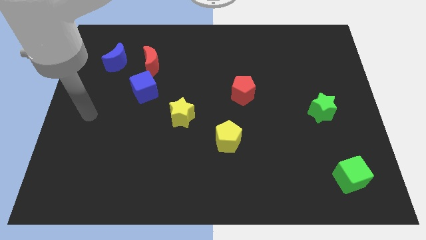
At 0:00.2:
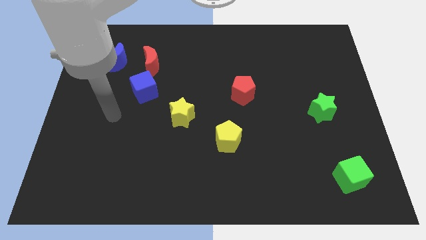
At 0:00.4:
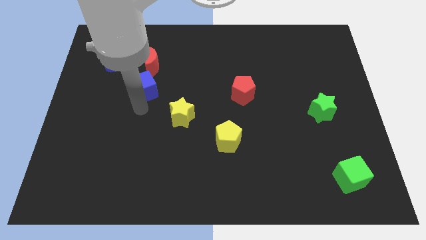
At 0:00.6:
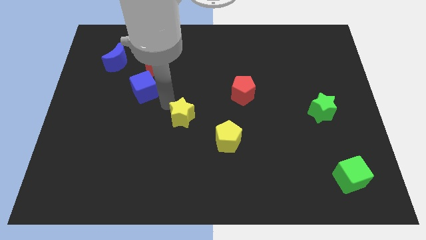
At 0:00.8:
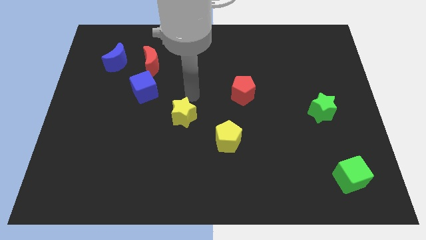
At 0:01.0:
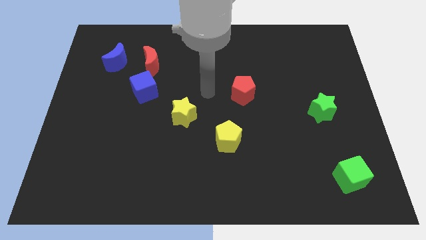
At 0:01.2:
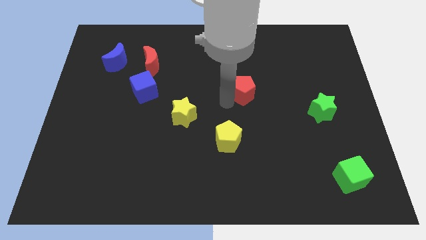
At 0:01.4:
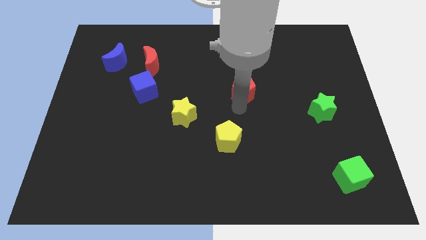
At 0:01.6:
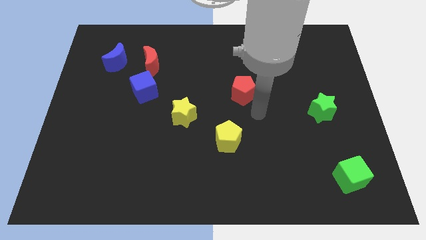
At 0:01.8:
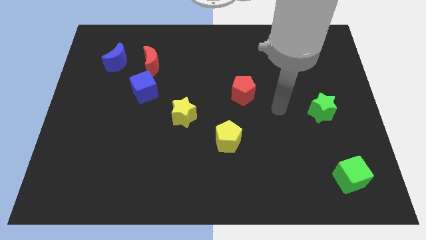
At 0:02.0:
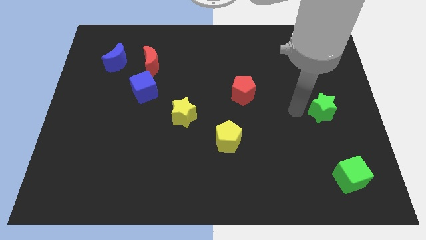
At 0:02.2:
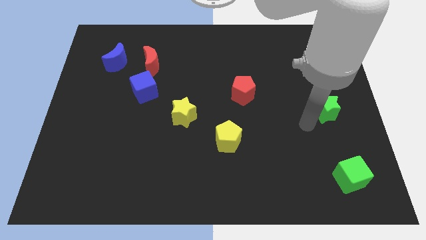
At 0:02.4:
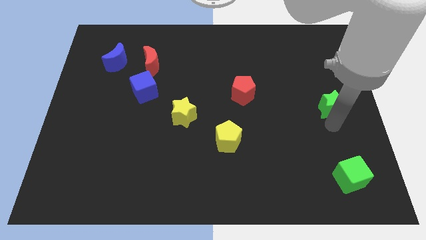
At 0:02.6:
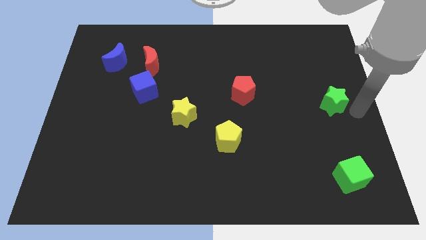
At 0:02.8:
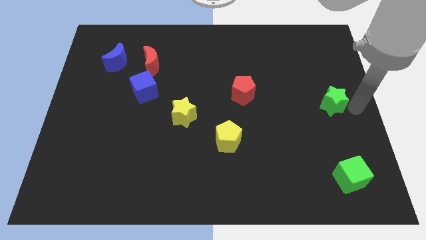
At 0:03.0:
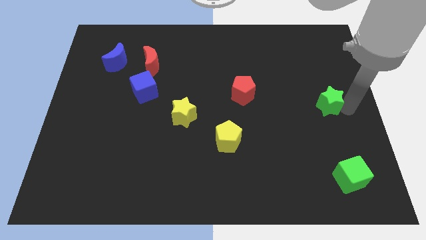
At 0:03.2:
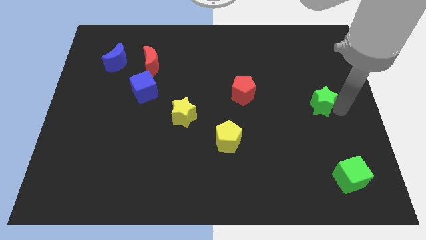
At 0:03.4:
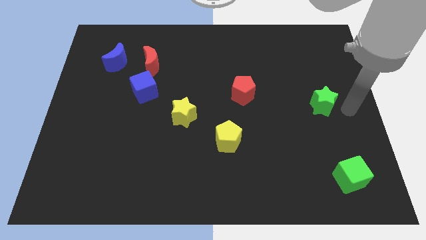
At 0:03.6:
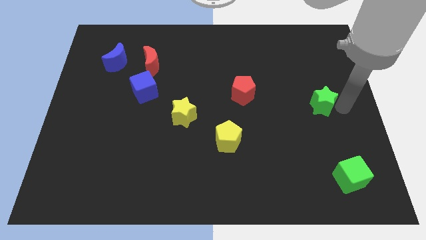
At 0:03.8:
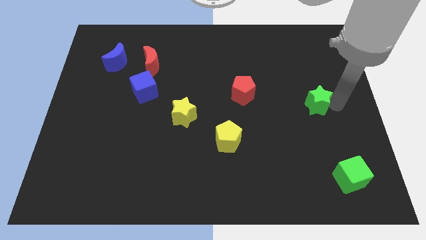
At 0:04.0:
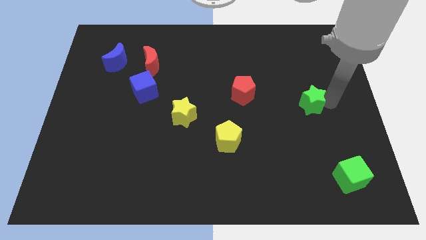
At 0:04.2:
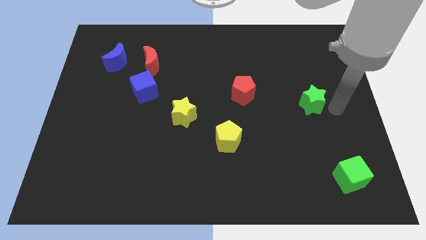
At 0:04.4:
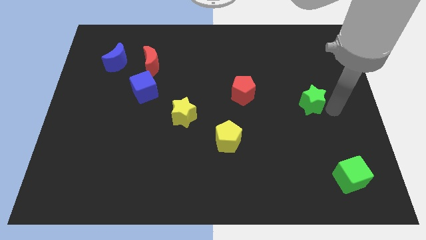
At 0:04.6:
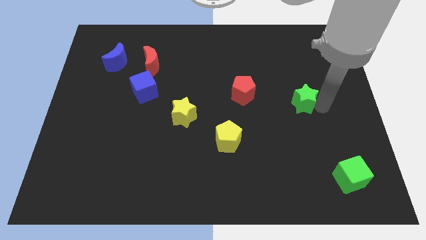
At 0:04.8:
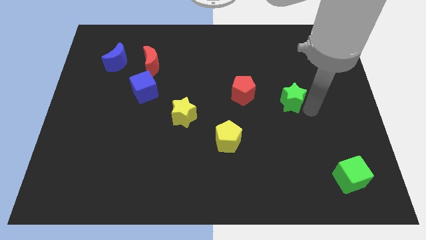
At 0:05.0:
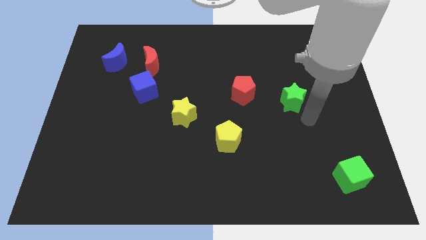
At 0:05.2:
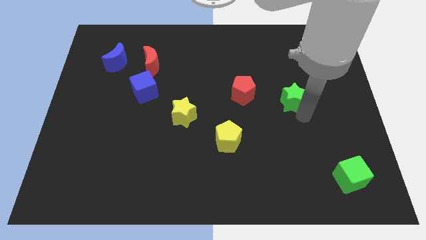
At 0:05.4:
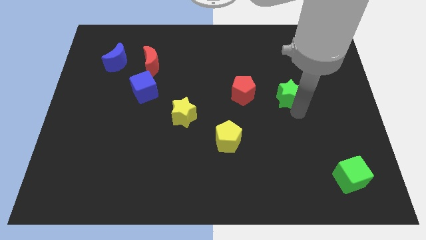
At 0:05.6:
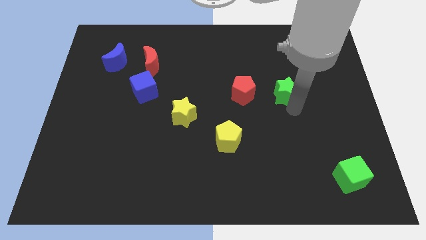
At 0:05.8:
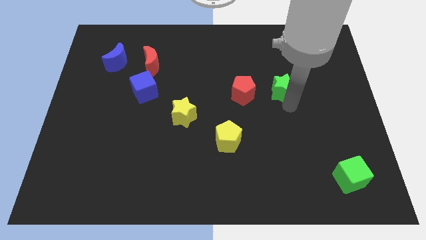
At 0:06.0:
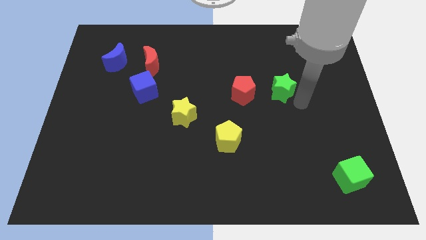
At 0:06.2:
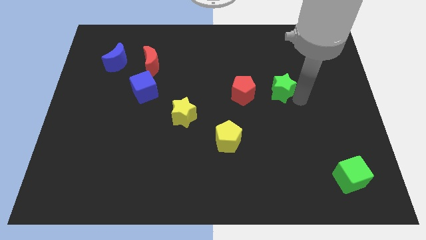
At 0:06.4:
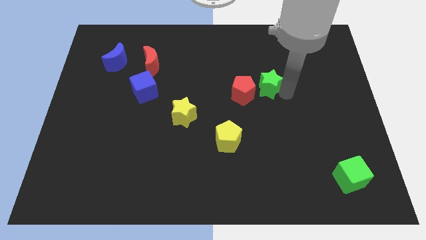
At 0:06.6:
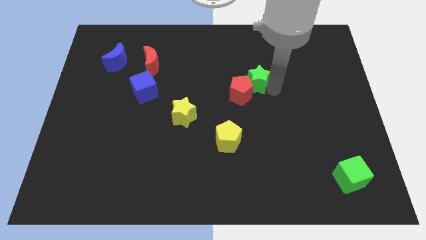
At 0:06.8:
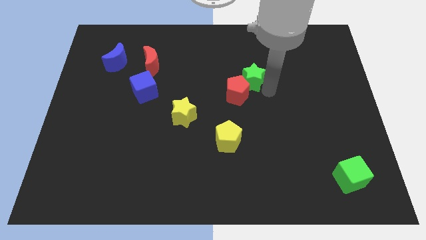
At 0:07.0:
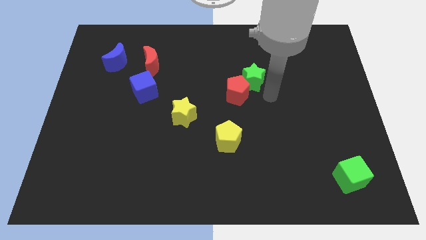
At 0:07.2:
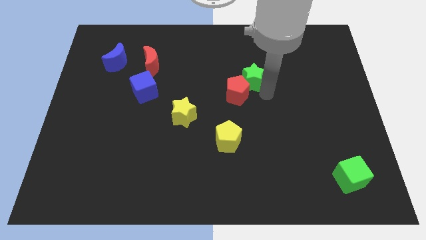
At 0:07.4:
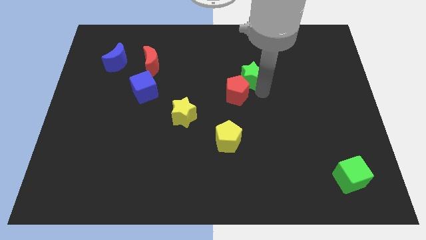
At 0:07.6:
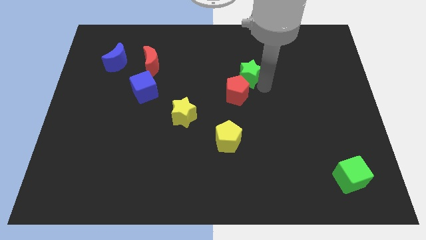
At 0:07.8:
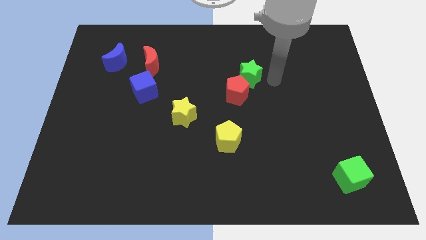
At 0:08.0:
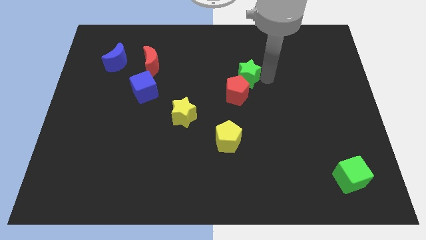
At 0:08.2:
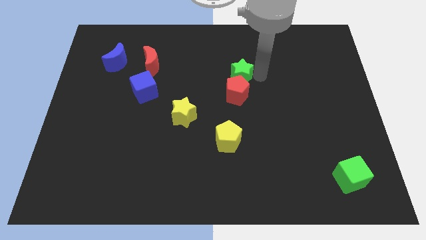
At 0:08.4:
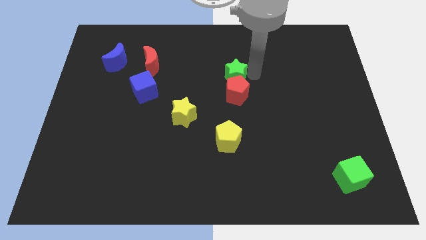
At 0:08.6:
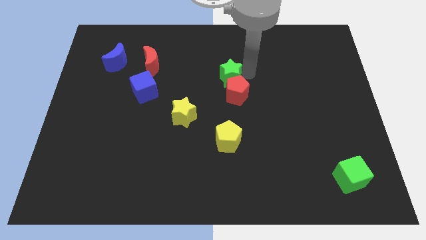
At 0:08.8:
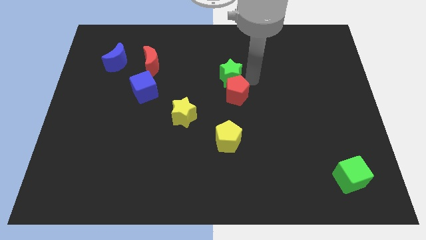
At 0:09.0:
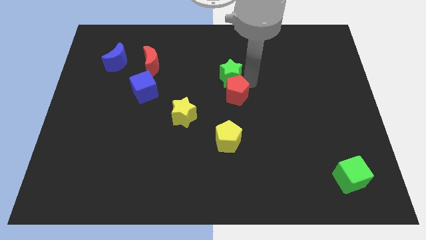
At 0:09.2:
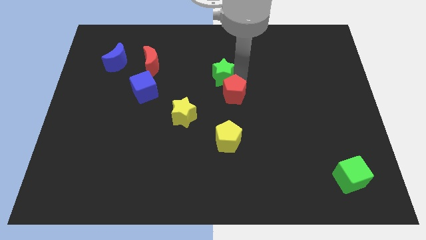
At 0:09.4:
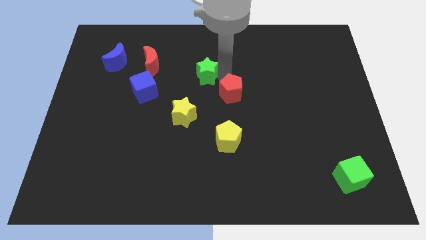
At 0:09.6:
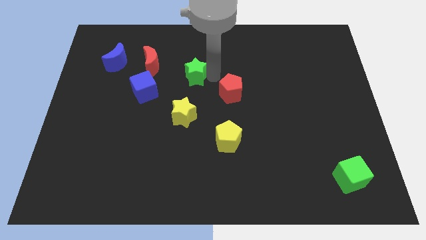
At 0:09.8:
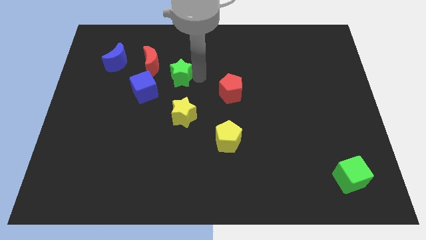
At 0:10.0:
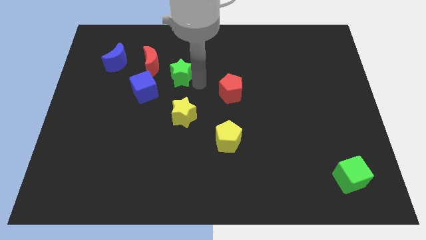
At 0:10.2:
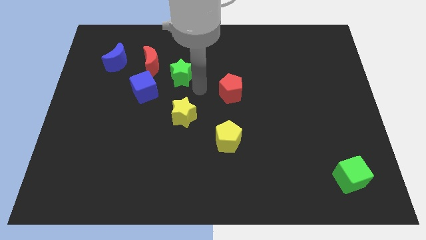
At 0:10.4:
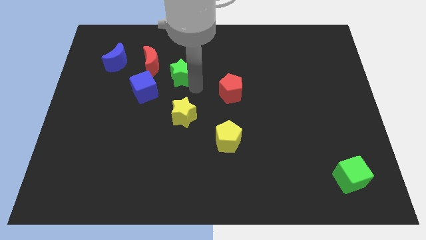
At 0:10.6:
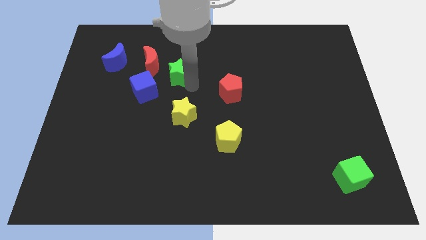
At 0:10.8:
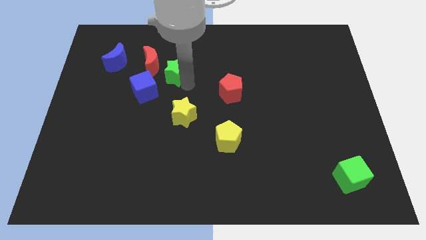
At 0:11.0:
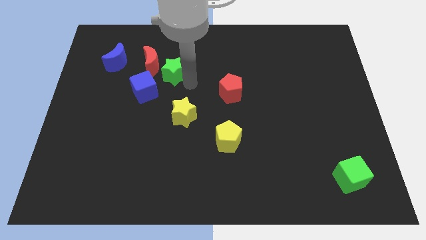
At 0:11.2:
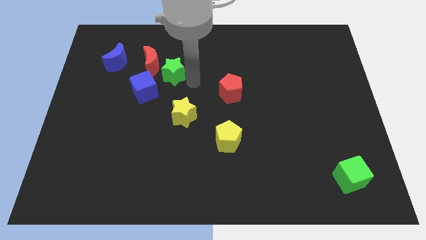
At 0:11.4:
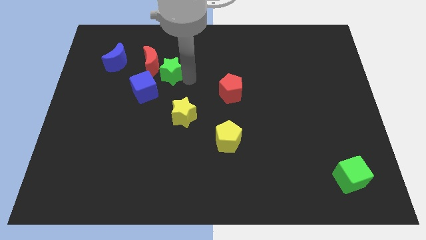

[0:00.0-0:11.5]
push the green star close to the red moon

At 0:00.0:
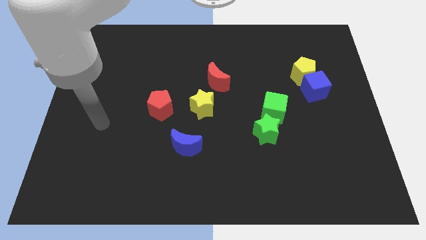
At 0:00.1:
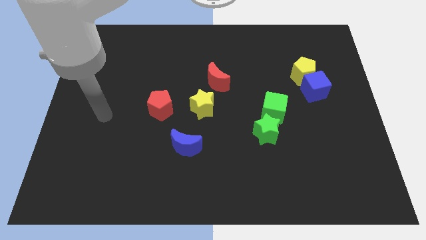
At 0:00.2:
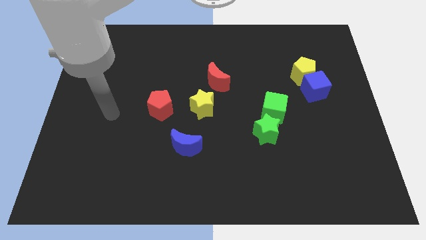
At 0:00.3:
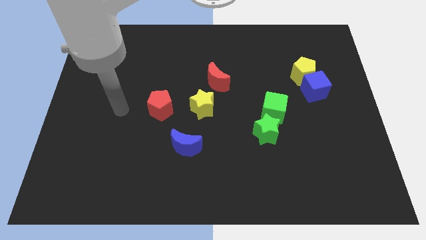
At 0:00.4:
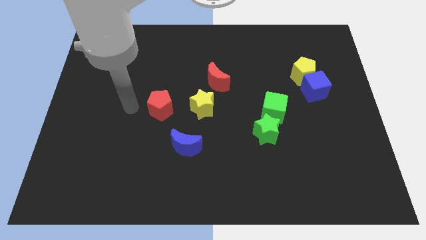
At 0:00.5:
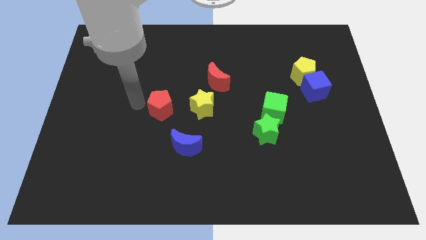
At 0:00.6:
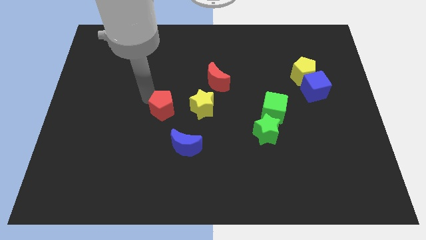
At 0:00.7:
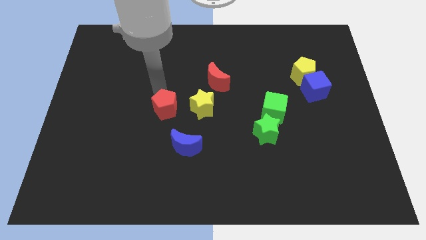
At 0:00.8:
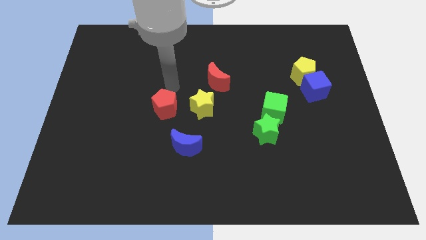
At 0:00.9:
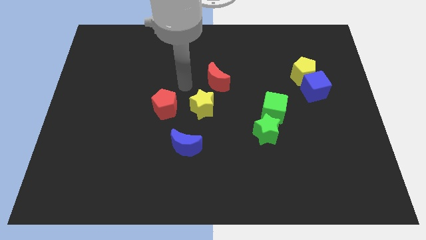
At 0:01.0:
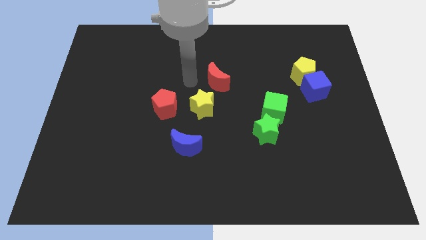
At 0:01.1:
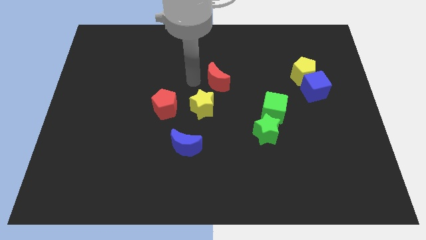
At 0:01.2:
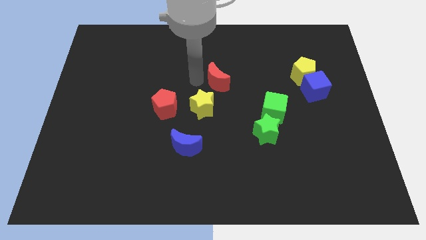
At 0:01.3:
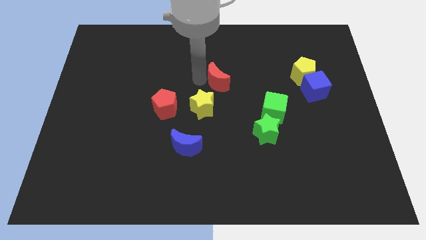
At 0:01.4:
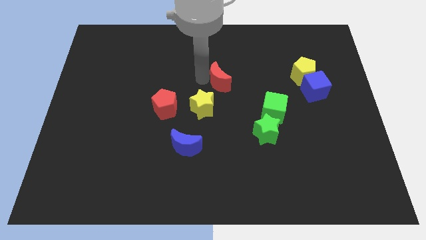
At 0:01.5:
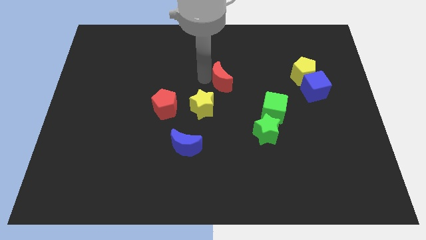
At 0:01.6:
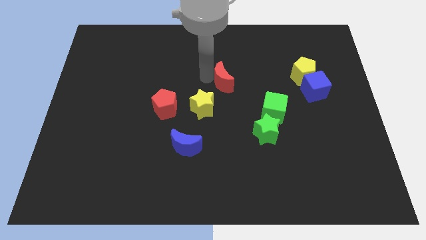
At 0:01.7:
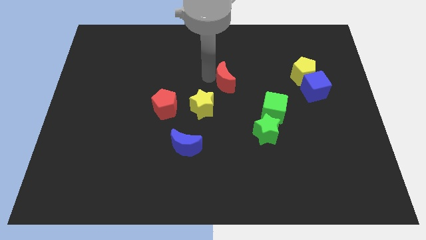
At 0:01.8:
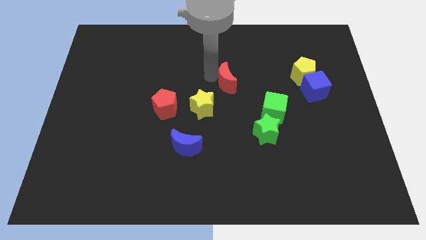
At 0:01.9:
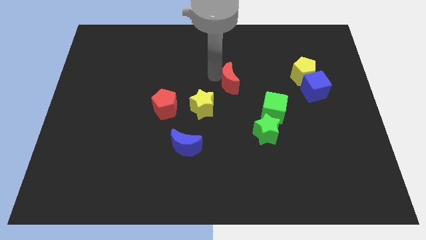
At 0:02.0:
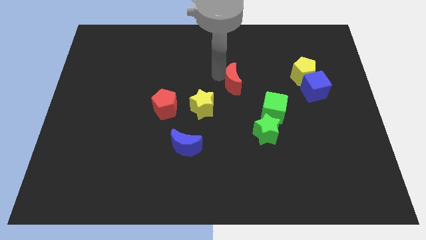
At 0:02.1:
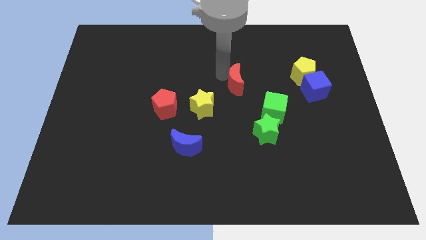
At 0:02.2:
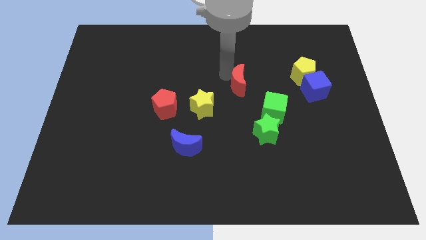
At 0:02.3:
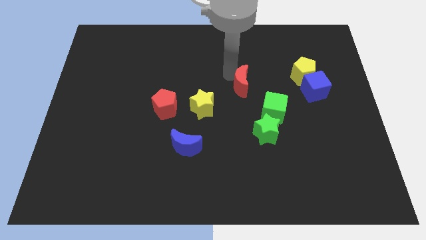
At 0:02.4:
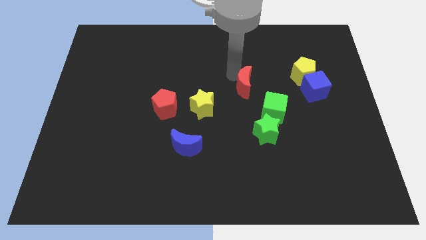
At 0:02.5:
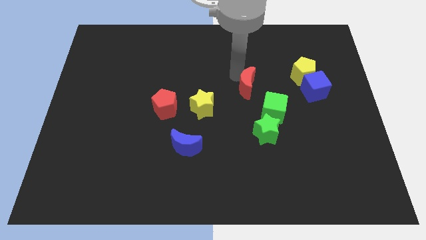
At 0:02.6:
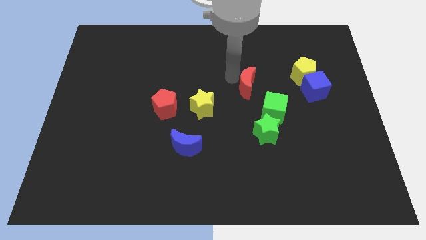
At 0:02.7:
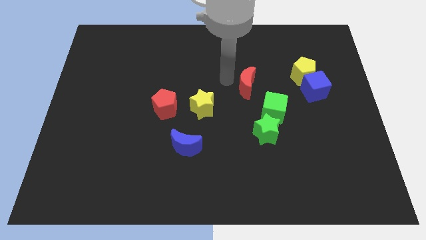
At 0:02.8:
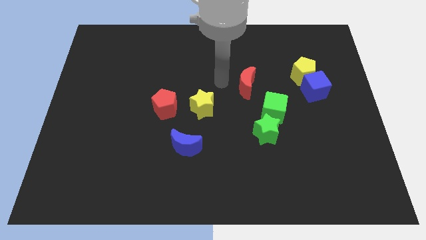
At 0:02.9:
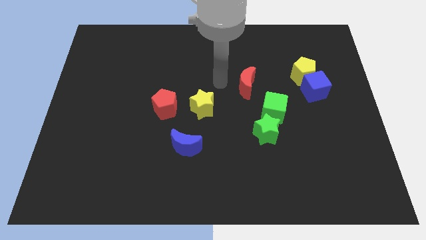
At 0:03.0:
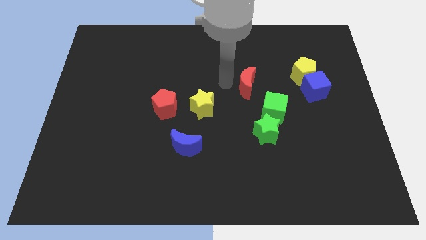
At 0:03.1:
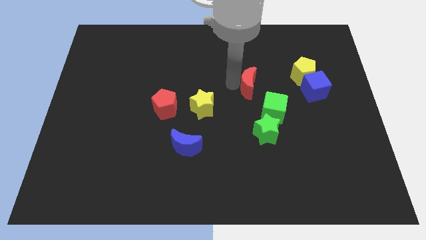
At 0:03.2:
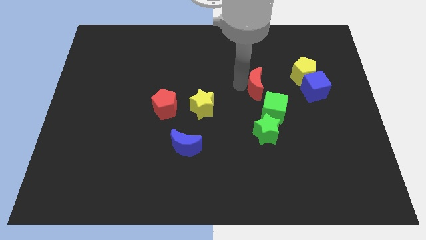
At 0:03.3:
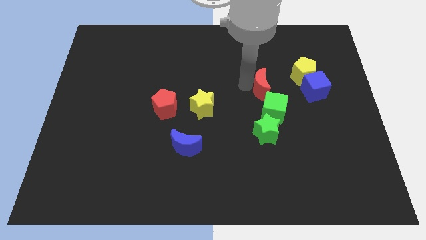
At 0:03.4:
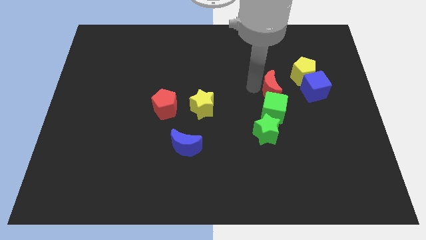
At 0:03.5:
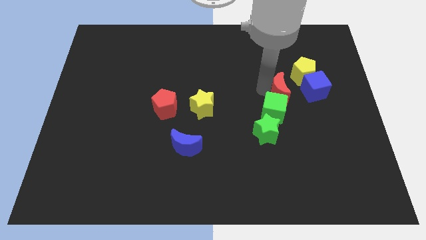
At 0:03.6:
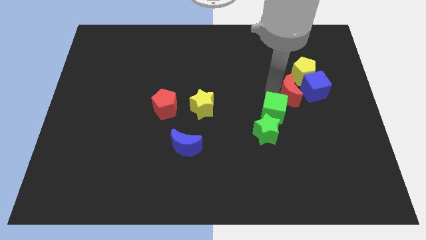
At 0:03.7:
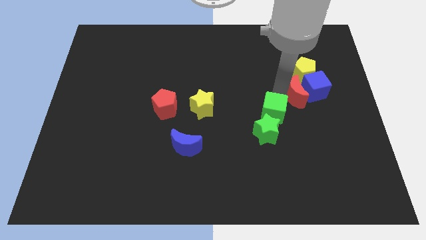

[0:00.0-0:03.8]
put the red moon towards the blue cube
